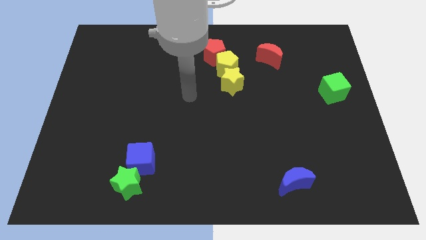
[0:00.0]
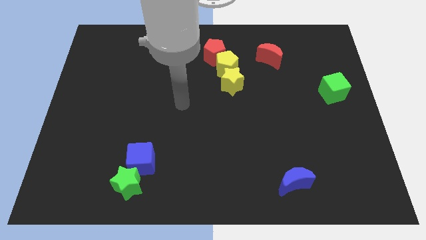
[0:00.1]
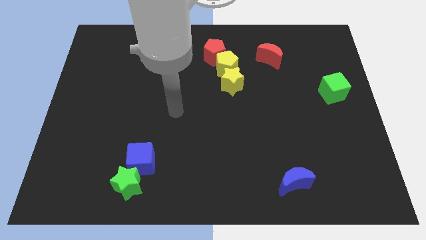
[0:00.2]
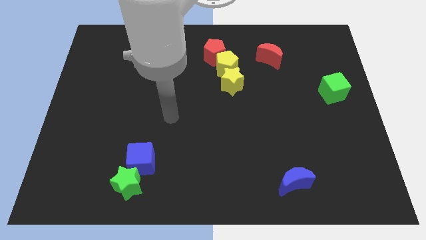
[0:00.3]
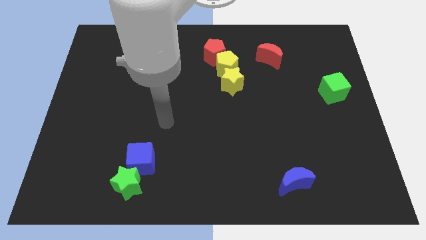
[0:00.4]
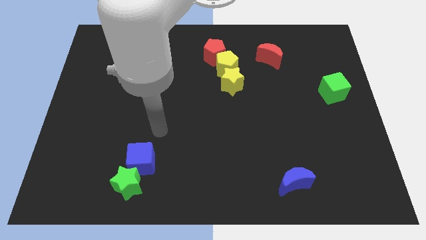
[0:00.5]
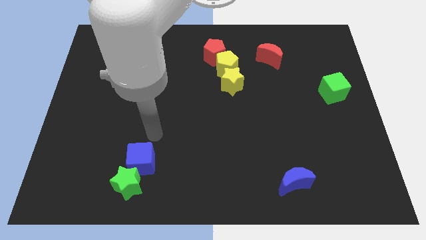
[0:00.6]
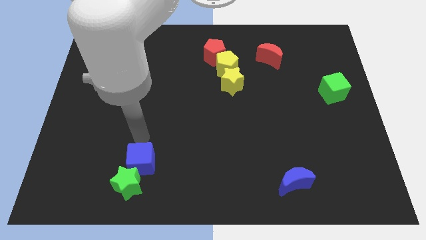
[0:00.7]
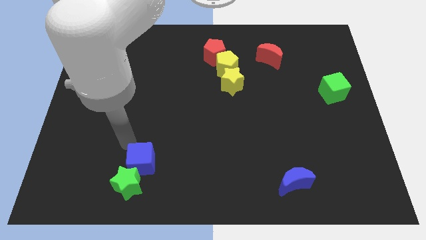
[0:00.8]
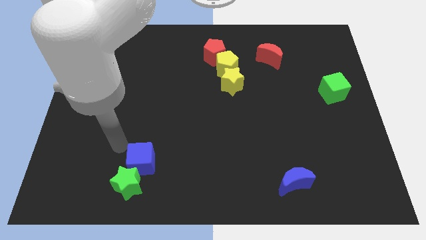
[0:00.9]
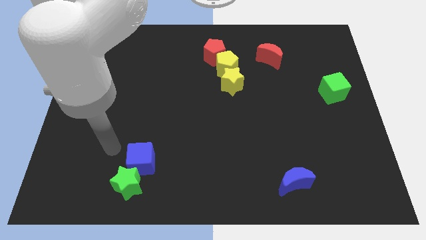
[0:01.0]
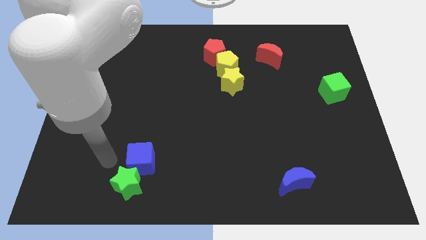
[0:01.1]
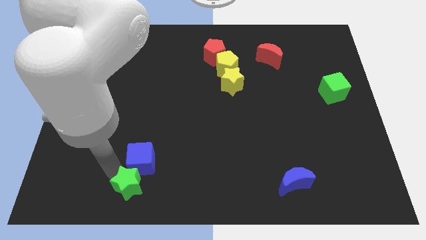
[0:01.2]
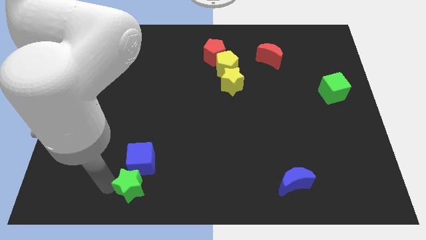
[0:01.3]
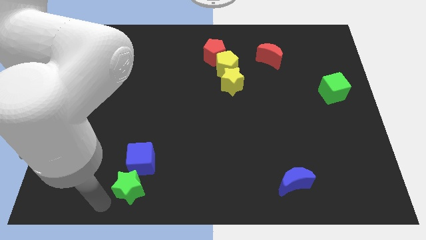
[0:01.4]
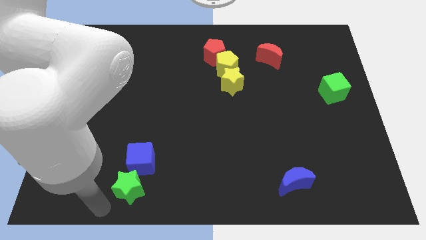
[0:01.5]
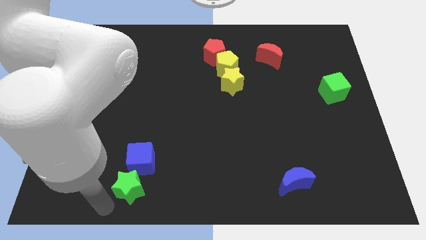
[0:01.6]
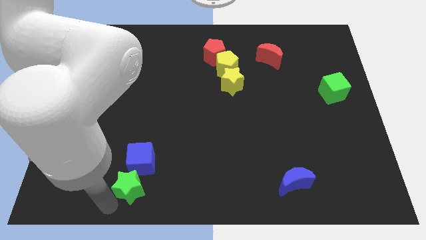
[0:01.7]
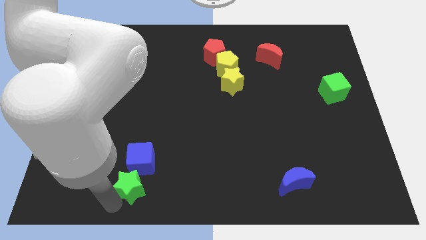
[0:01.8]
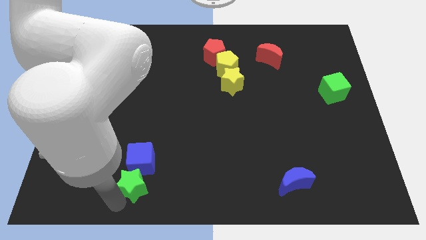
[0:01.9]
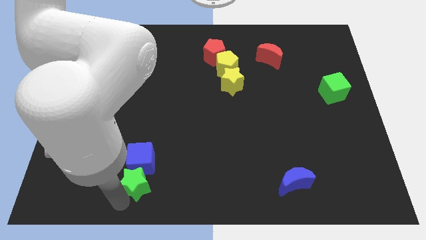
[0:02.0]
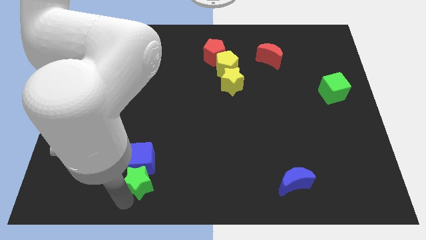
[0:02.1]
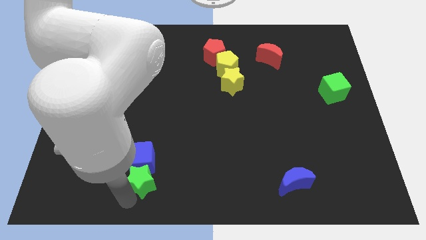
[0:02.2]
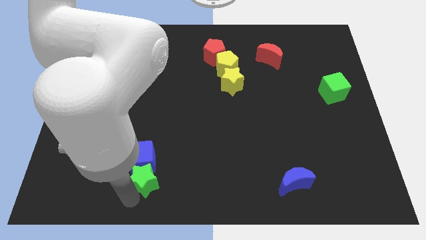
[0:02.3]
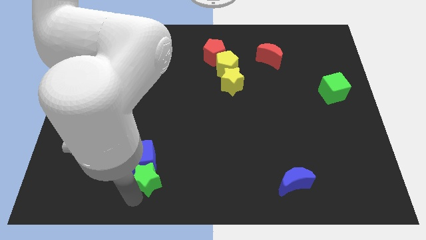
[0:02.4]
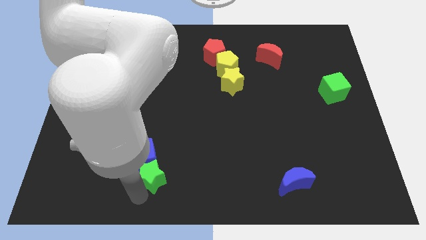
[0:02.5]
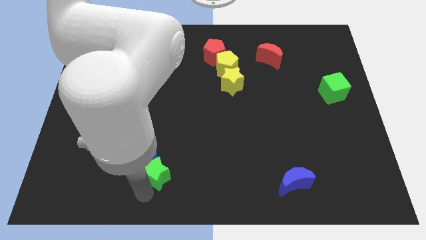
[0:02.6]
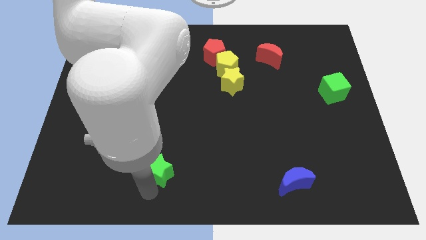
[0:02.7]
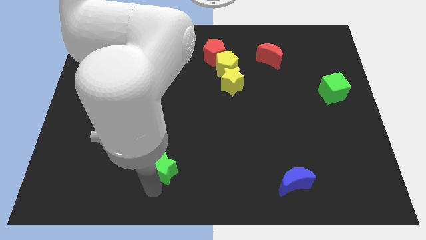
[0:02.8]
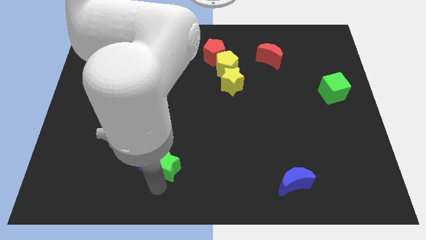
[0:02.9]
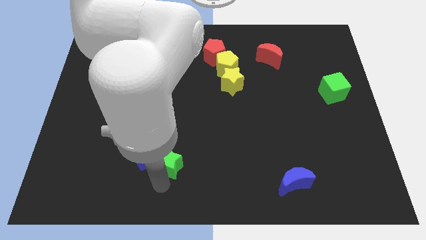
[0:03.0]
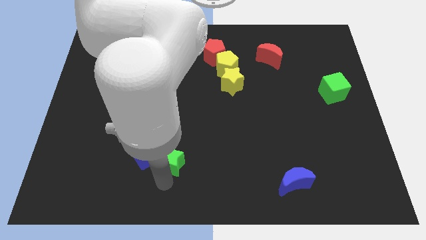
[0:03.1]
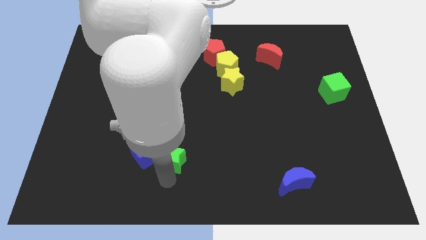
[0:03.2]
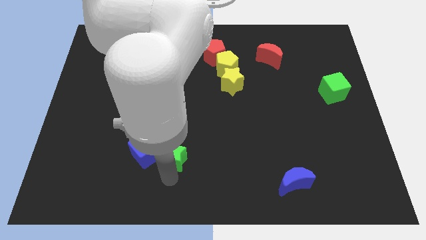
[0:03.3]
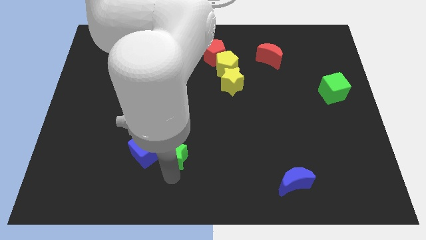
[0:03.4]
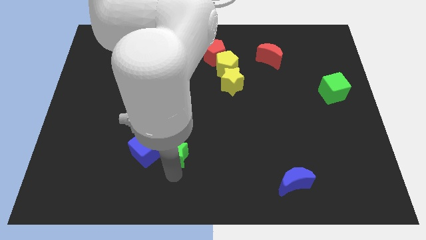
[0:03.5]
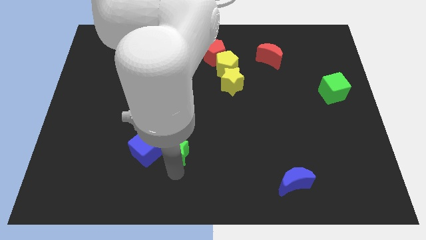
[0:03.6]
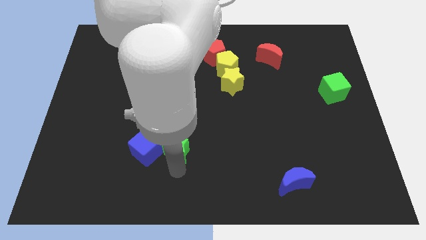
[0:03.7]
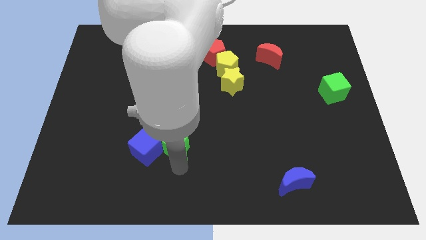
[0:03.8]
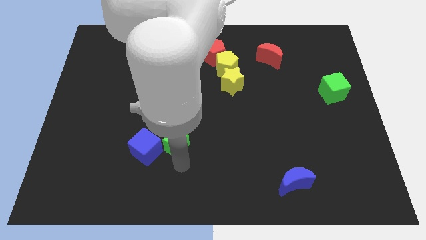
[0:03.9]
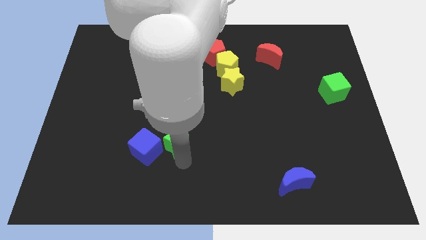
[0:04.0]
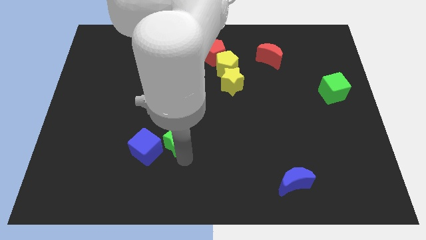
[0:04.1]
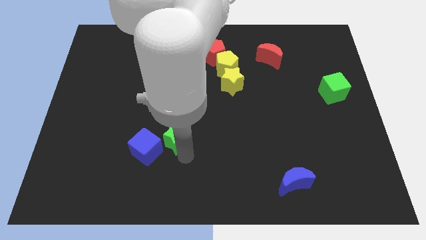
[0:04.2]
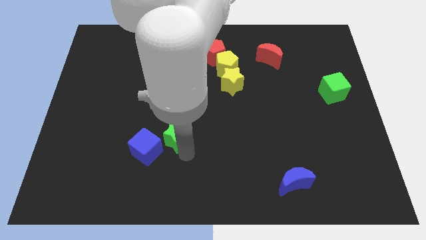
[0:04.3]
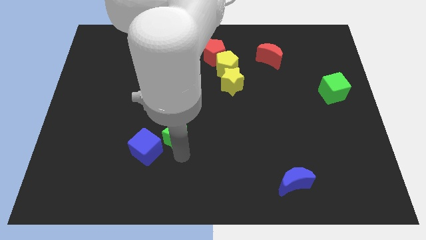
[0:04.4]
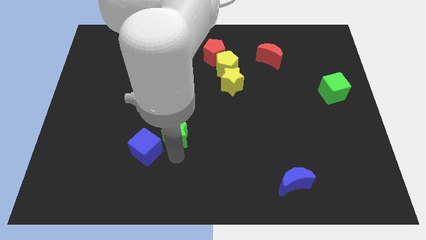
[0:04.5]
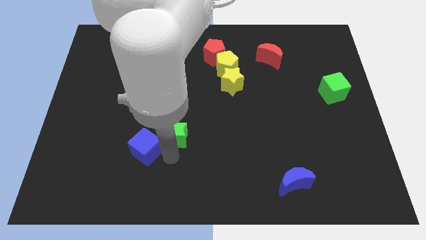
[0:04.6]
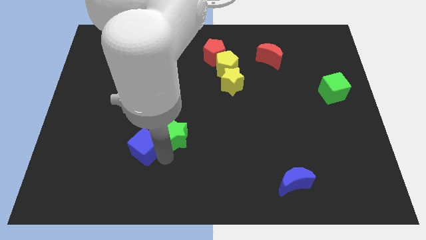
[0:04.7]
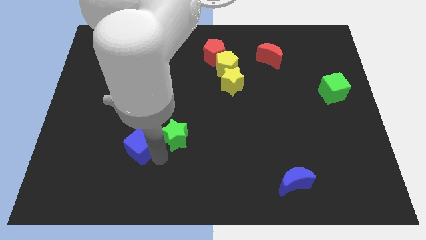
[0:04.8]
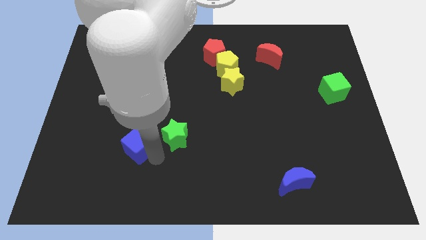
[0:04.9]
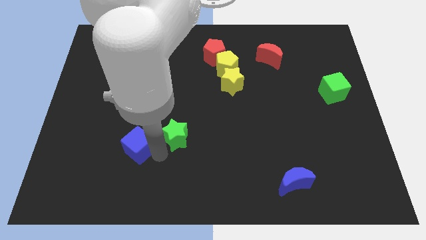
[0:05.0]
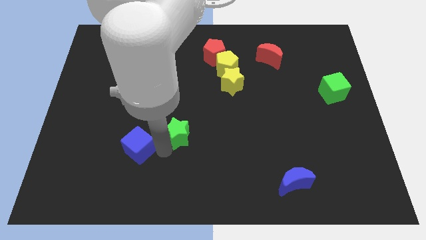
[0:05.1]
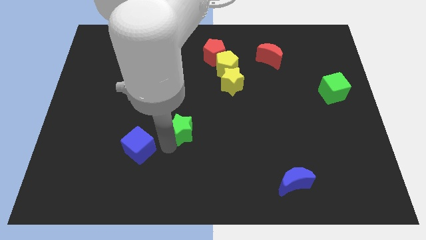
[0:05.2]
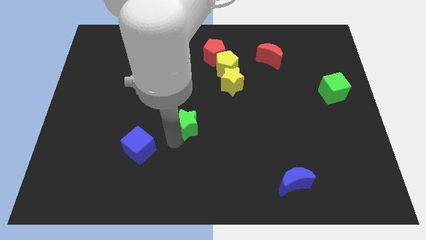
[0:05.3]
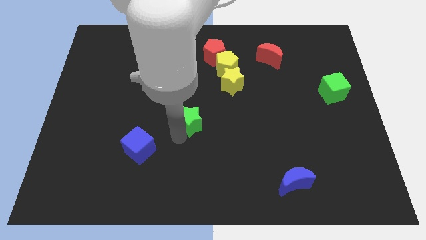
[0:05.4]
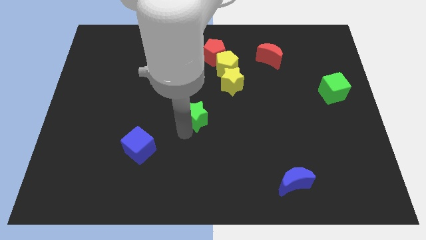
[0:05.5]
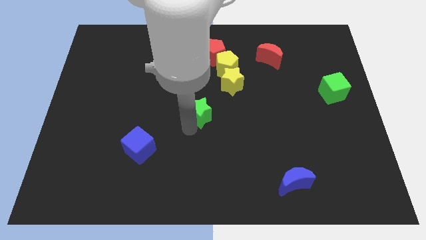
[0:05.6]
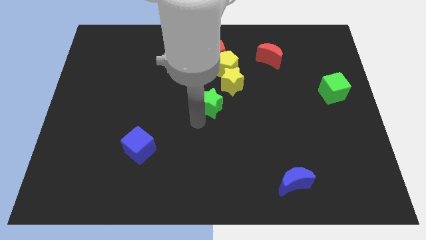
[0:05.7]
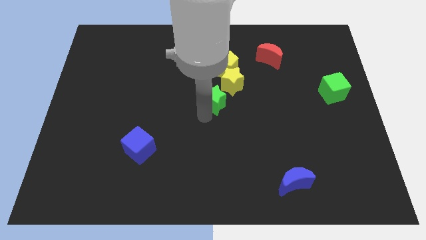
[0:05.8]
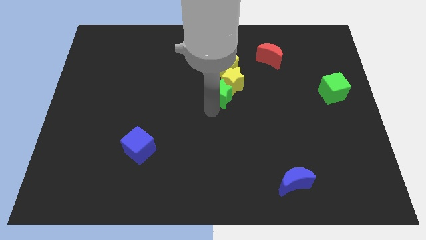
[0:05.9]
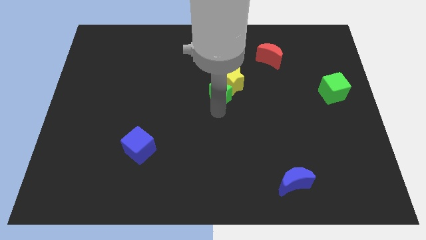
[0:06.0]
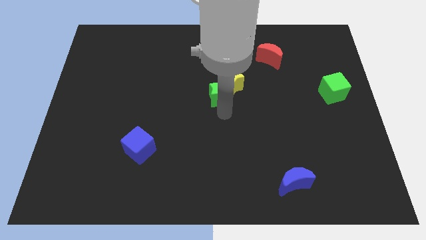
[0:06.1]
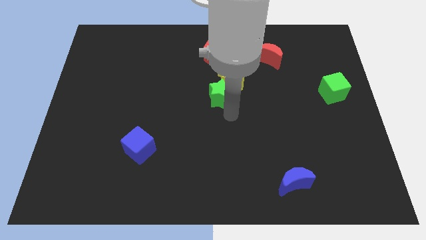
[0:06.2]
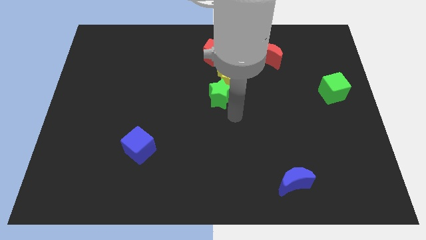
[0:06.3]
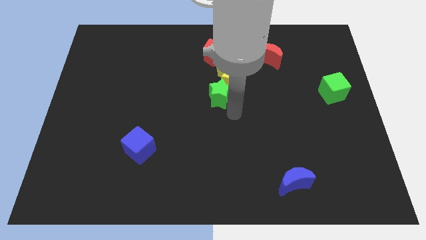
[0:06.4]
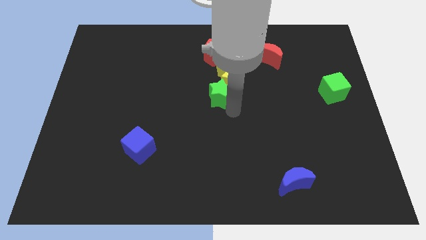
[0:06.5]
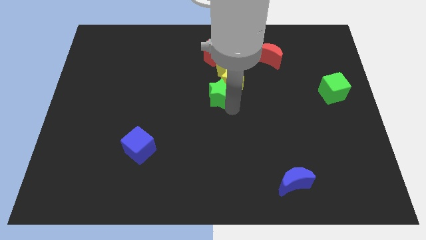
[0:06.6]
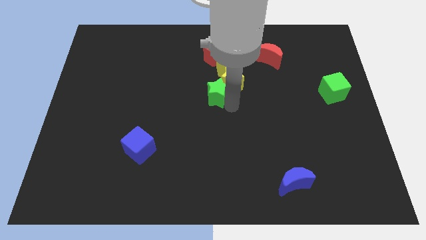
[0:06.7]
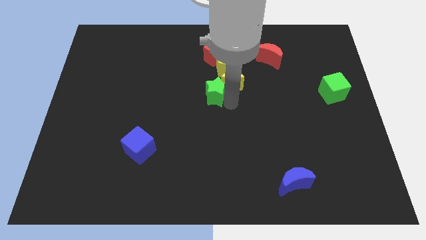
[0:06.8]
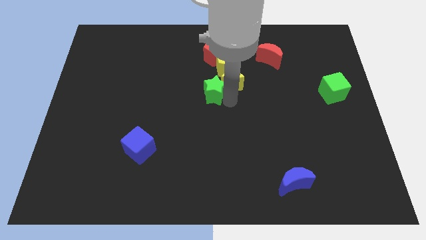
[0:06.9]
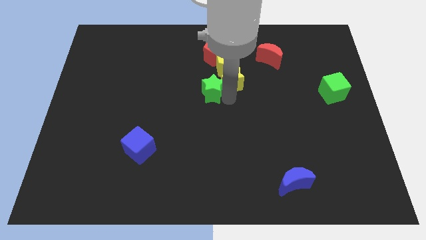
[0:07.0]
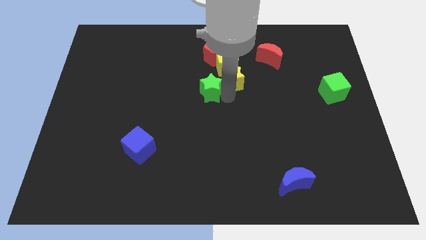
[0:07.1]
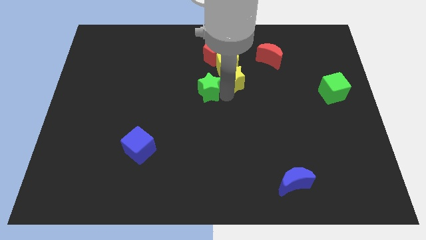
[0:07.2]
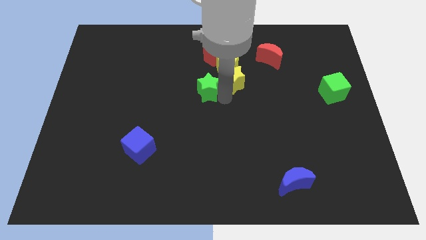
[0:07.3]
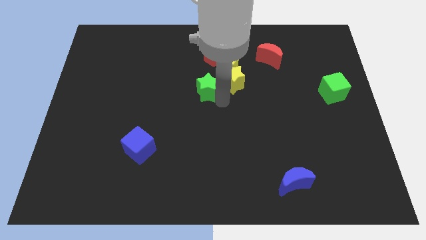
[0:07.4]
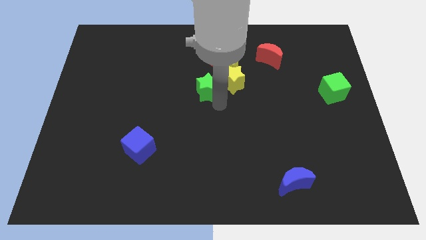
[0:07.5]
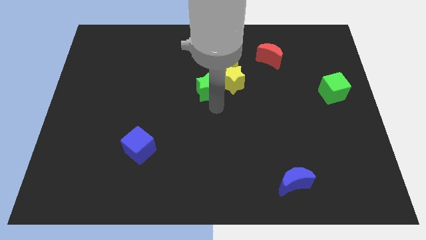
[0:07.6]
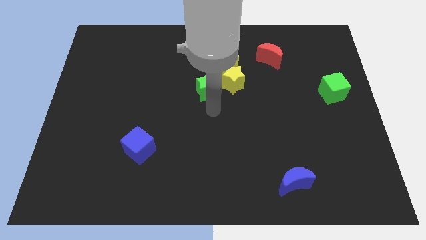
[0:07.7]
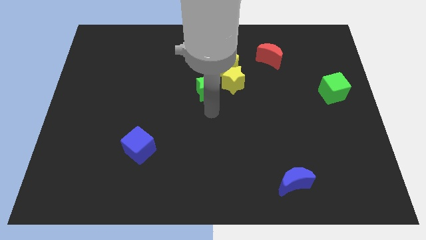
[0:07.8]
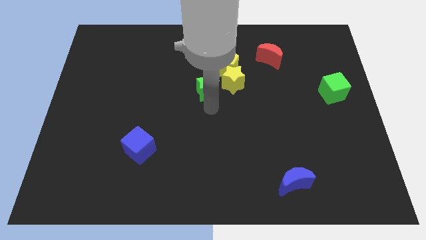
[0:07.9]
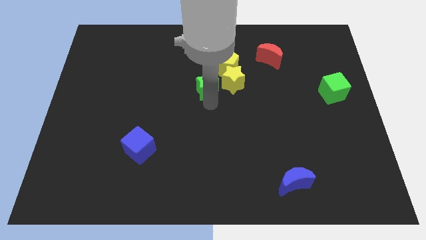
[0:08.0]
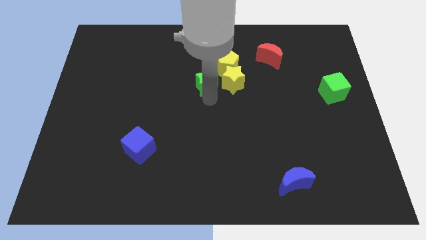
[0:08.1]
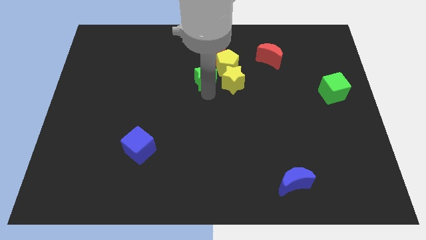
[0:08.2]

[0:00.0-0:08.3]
move the green star diagonally up and to the left of the yellow star
